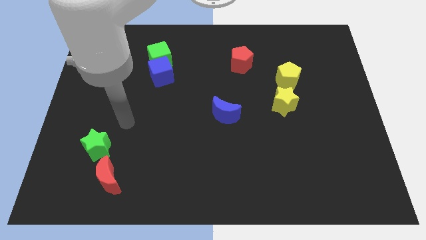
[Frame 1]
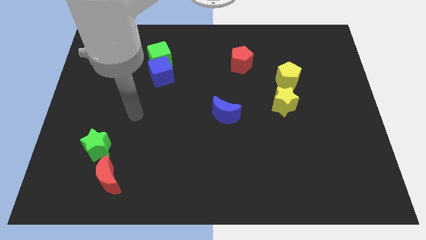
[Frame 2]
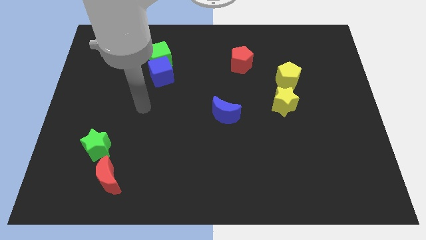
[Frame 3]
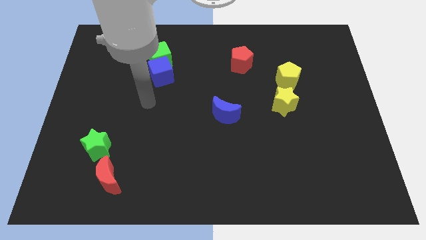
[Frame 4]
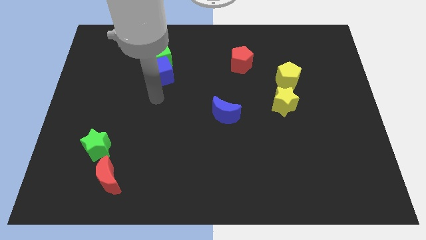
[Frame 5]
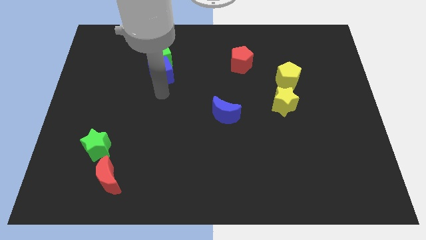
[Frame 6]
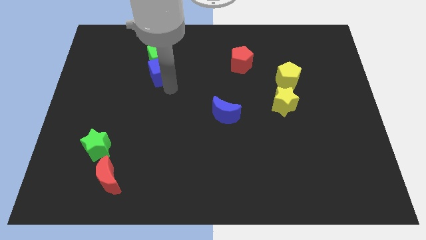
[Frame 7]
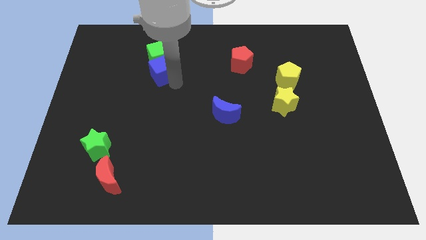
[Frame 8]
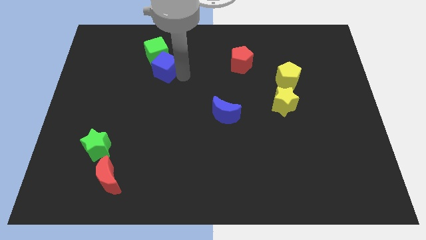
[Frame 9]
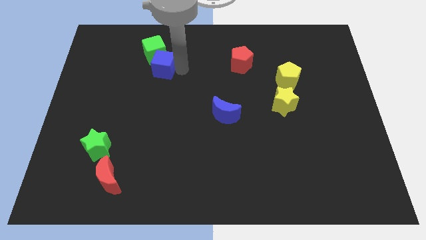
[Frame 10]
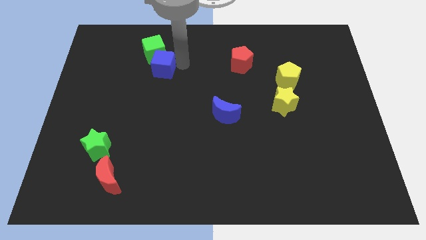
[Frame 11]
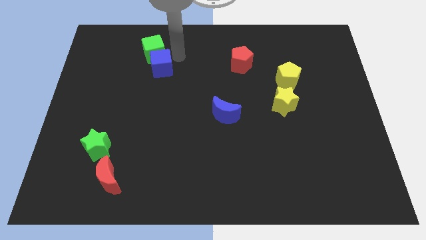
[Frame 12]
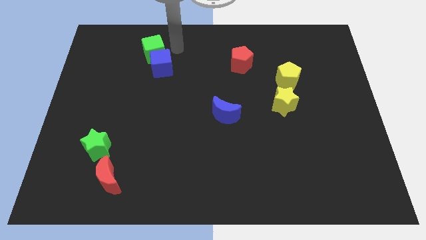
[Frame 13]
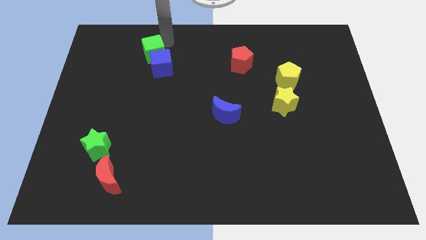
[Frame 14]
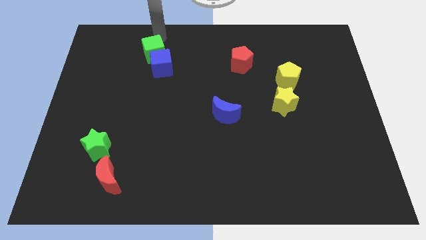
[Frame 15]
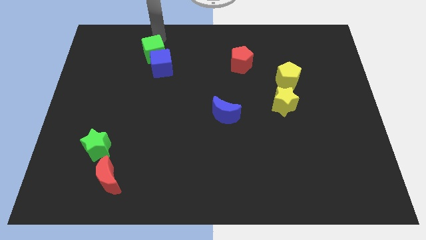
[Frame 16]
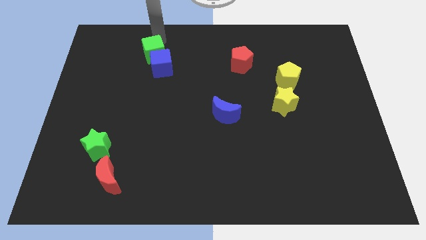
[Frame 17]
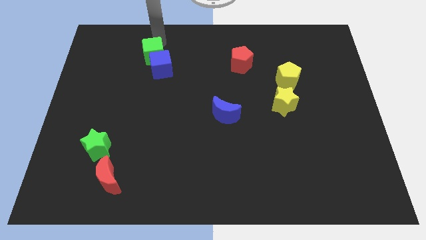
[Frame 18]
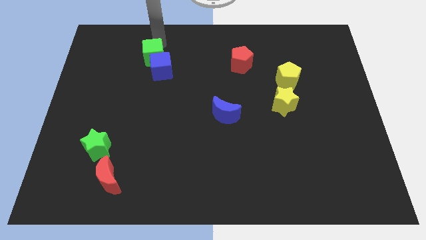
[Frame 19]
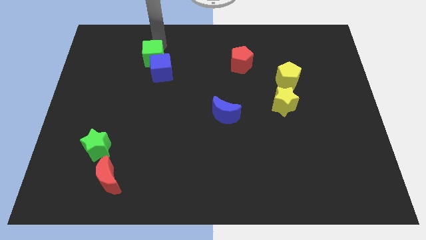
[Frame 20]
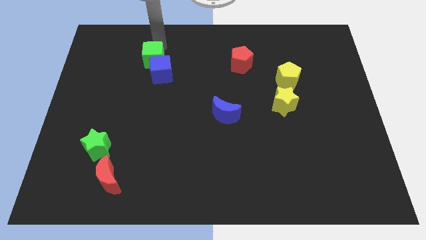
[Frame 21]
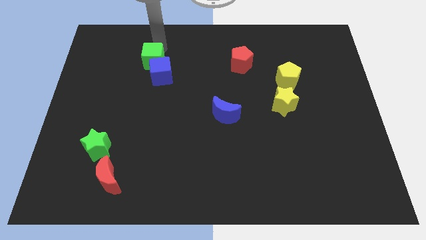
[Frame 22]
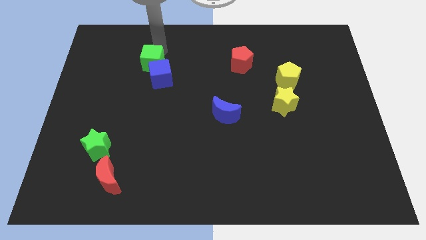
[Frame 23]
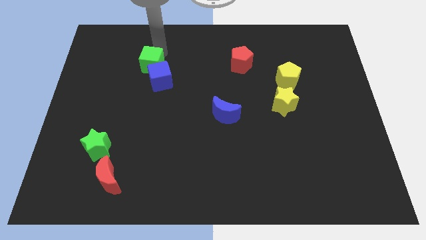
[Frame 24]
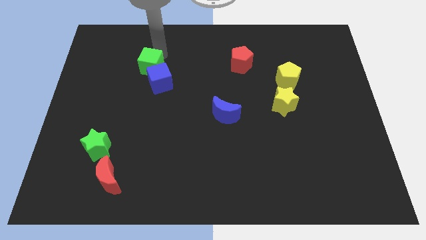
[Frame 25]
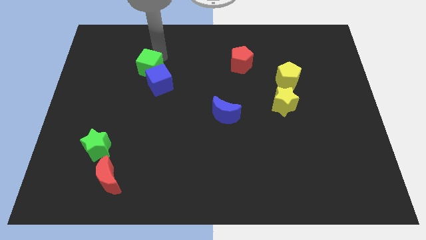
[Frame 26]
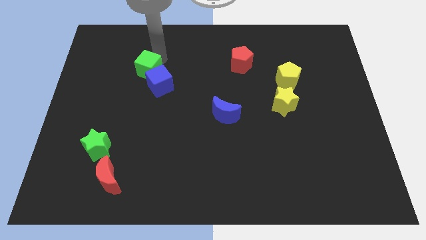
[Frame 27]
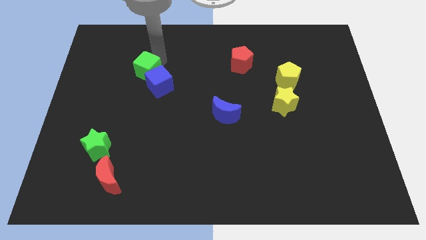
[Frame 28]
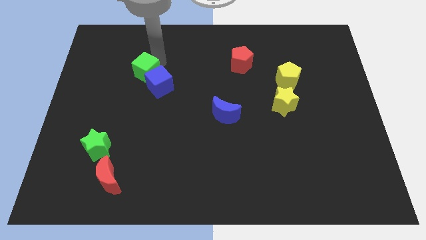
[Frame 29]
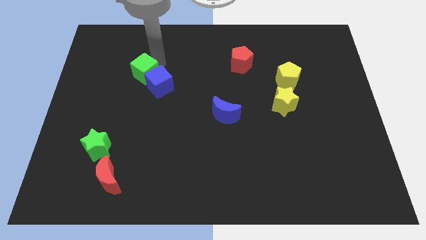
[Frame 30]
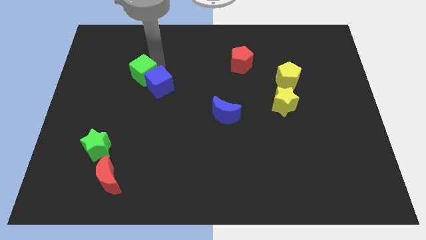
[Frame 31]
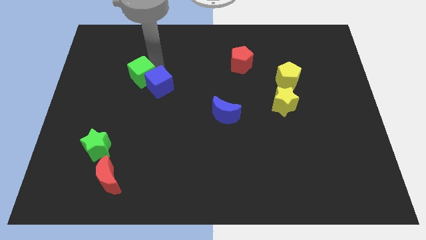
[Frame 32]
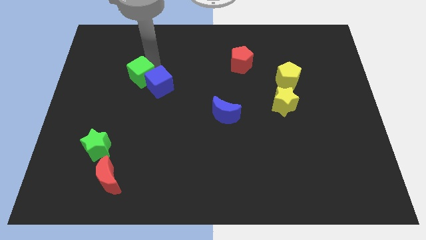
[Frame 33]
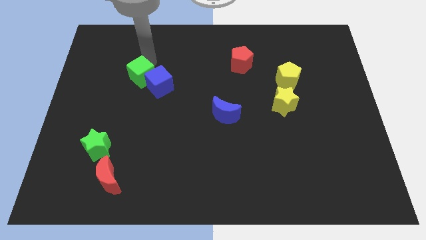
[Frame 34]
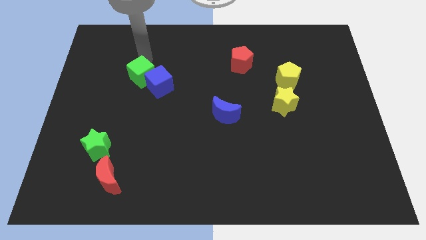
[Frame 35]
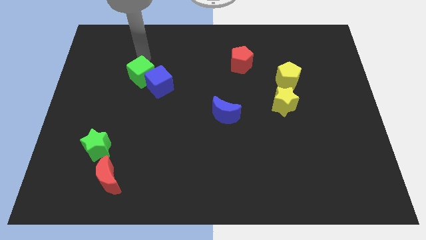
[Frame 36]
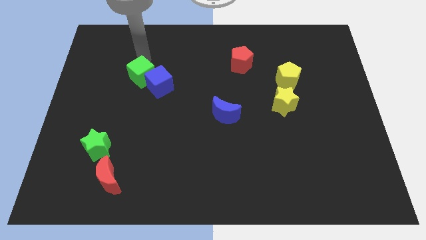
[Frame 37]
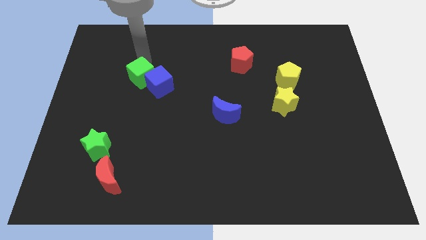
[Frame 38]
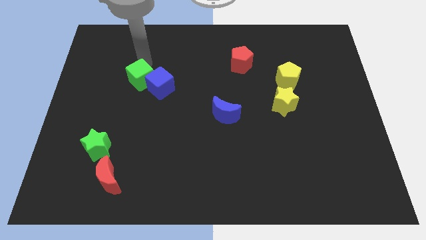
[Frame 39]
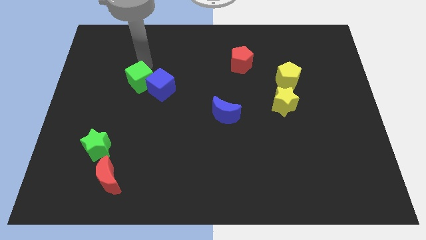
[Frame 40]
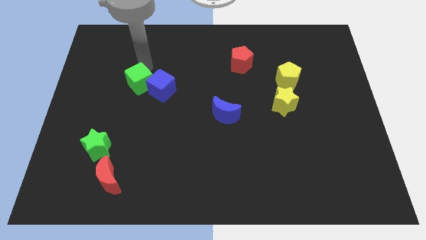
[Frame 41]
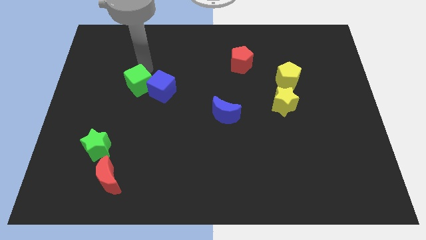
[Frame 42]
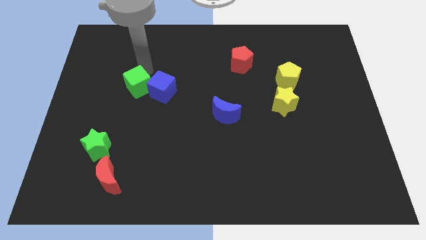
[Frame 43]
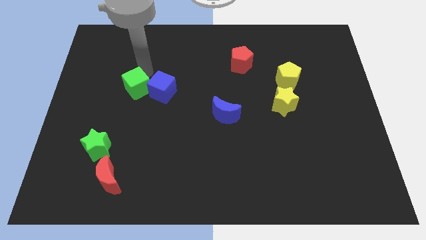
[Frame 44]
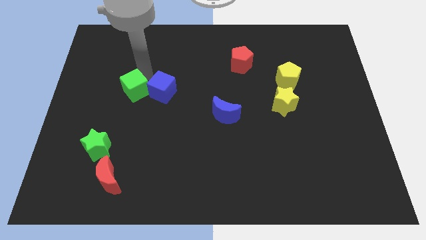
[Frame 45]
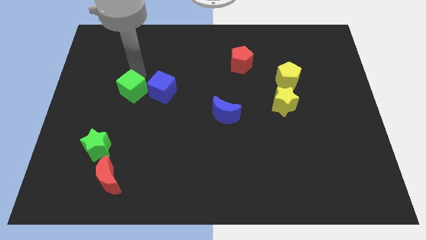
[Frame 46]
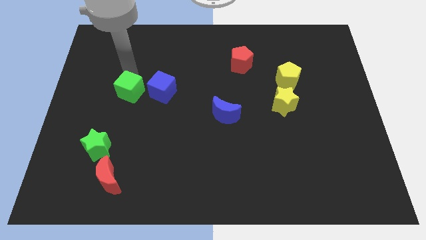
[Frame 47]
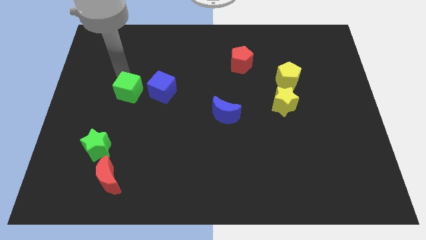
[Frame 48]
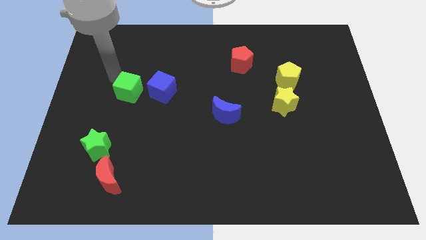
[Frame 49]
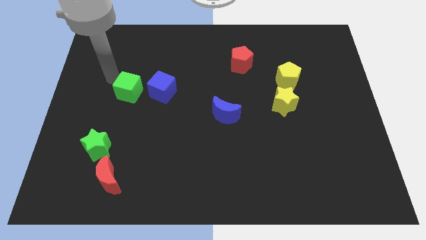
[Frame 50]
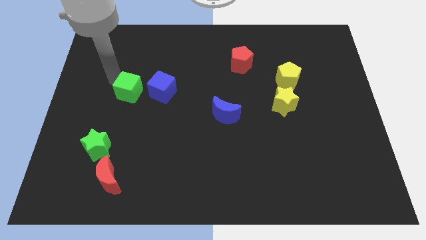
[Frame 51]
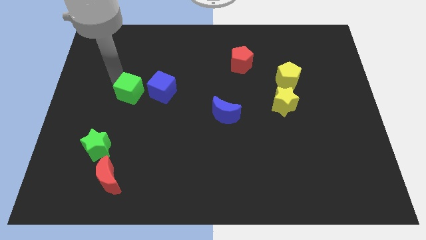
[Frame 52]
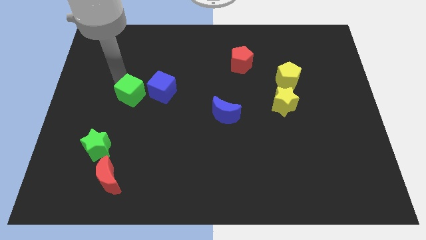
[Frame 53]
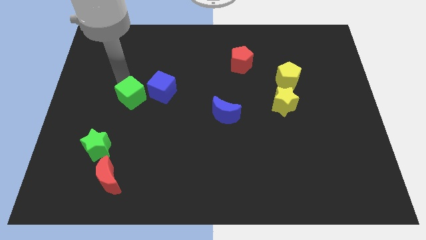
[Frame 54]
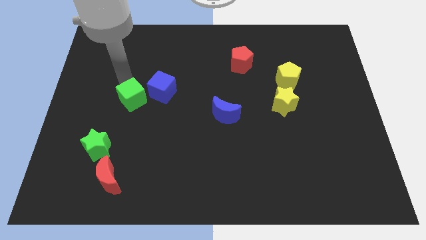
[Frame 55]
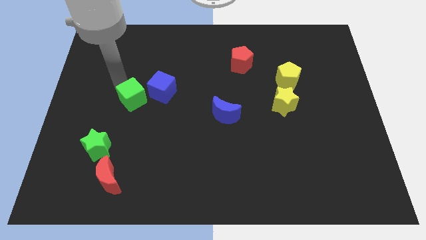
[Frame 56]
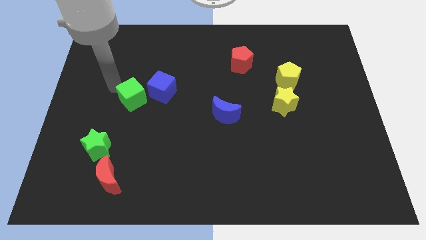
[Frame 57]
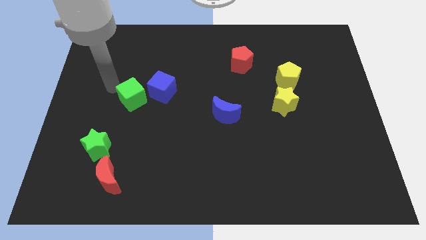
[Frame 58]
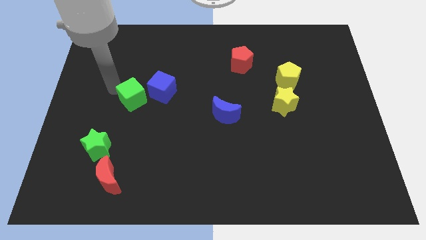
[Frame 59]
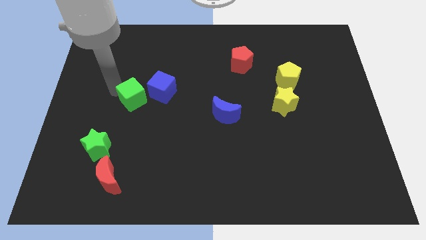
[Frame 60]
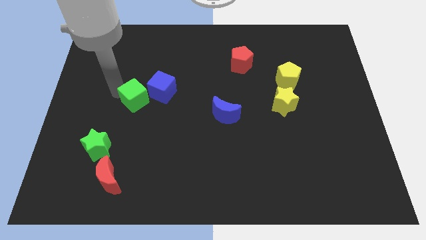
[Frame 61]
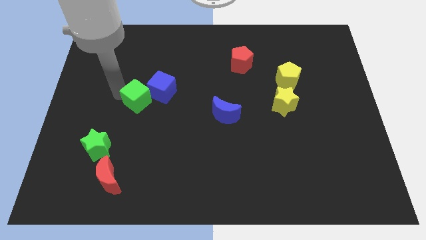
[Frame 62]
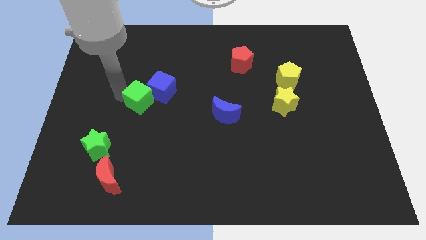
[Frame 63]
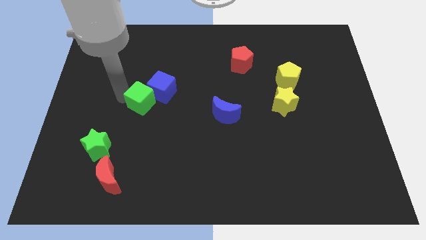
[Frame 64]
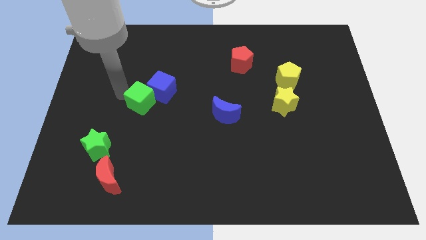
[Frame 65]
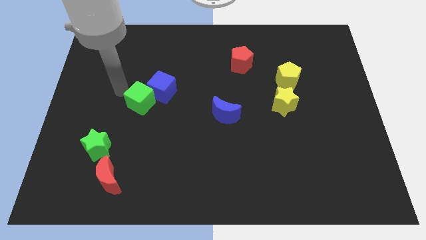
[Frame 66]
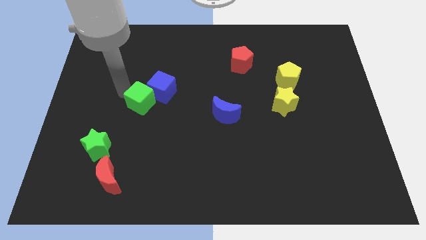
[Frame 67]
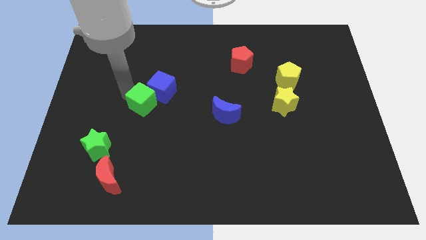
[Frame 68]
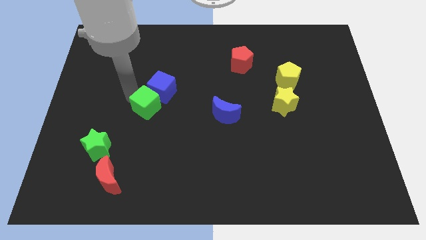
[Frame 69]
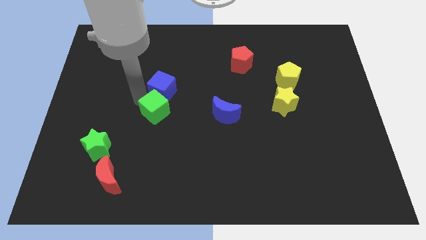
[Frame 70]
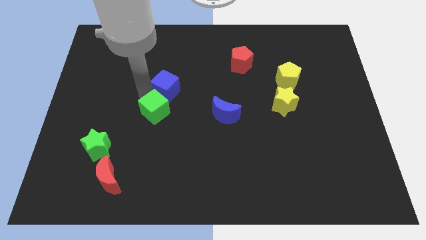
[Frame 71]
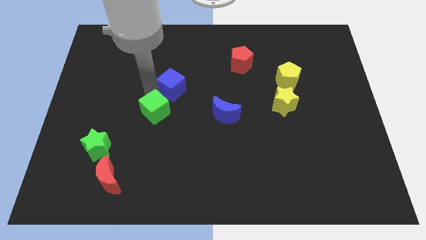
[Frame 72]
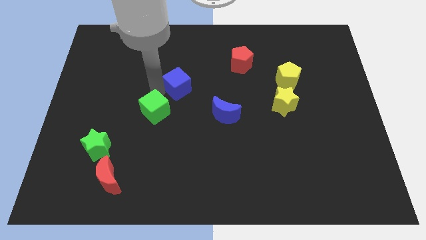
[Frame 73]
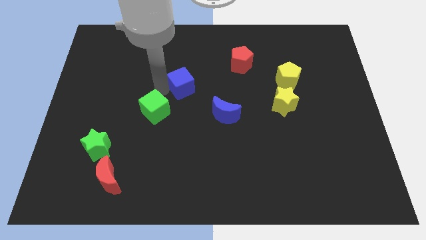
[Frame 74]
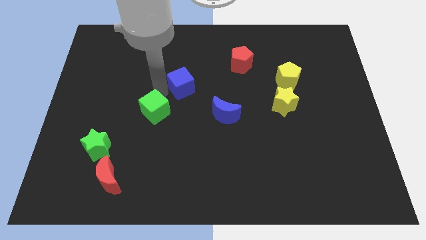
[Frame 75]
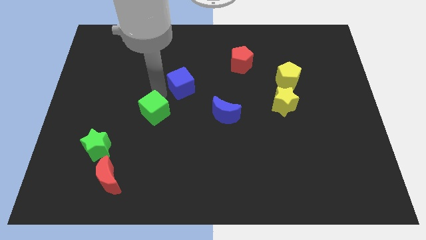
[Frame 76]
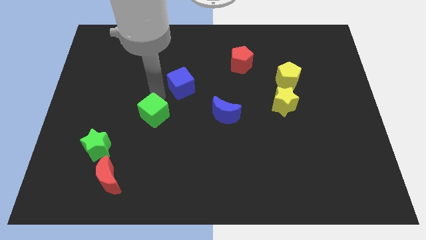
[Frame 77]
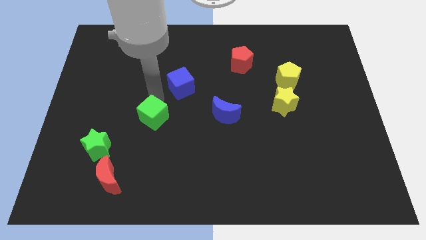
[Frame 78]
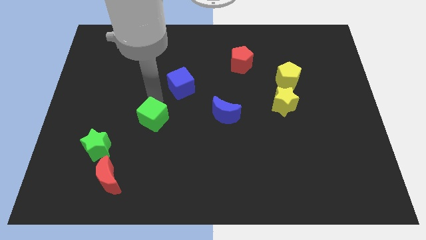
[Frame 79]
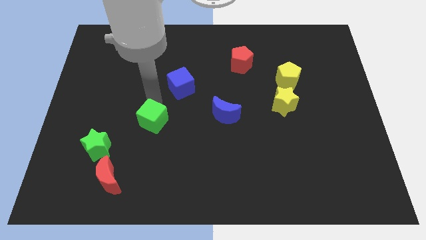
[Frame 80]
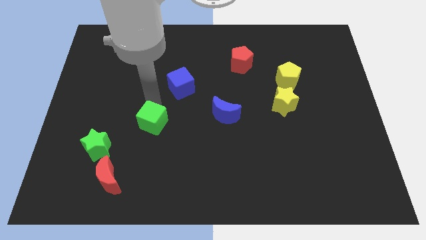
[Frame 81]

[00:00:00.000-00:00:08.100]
slide the green cube downwards
